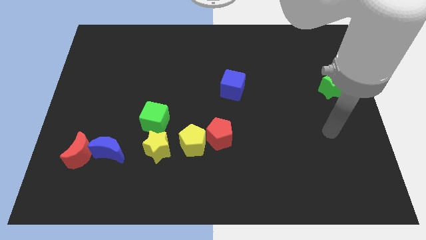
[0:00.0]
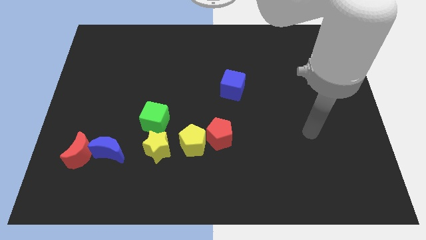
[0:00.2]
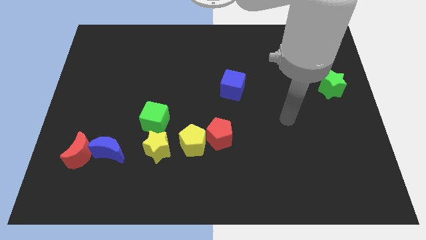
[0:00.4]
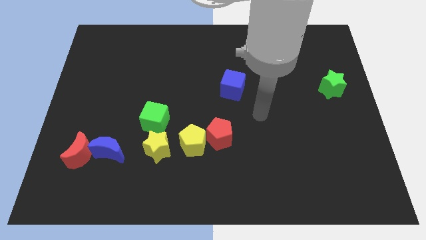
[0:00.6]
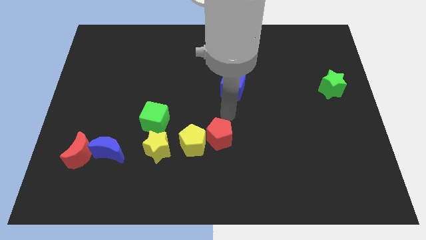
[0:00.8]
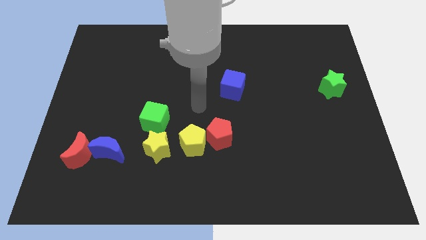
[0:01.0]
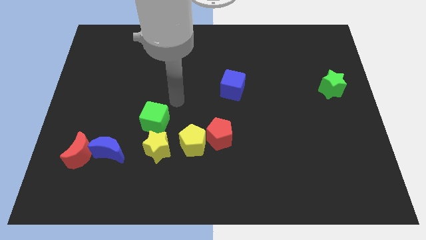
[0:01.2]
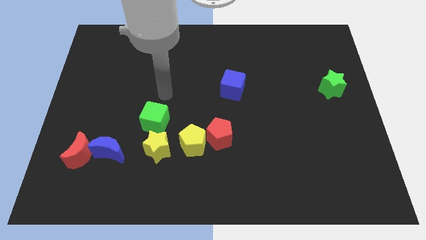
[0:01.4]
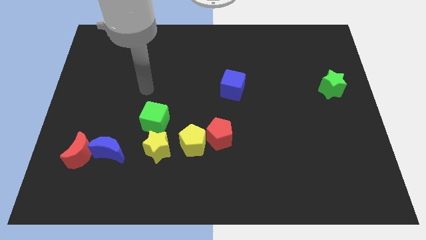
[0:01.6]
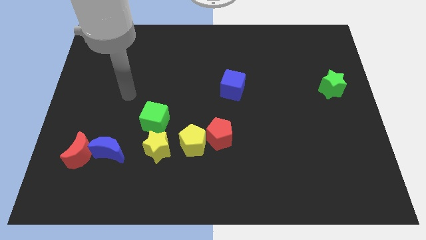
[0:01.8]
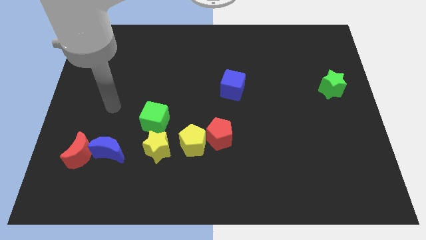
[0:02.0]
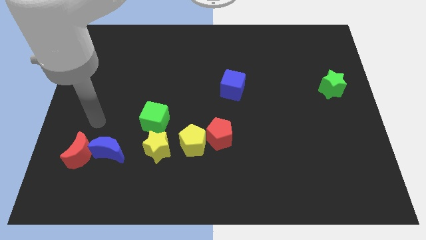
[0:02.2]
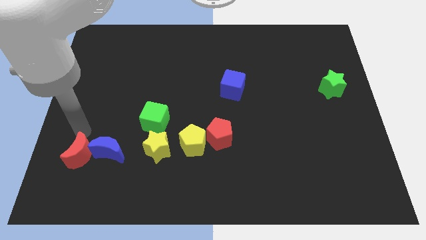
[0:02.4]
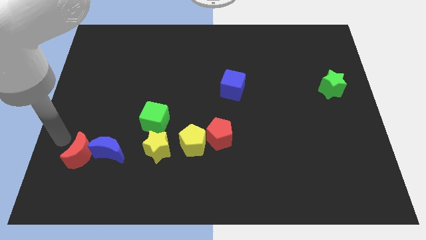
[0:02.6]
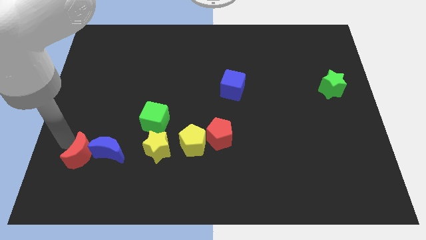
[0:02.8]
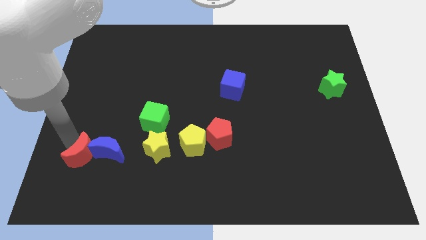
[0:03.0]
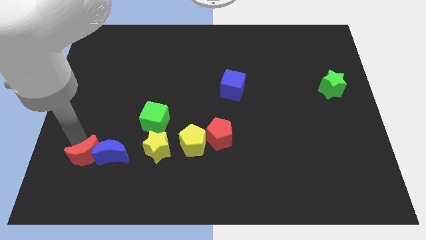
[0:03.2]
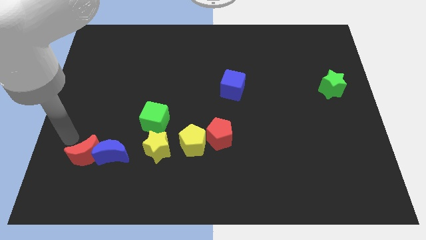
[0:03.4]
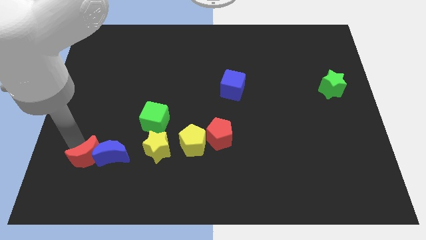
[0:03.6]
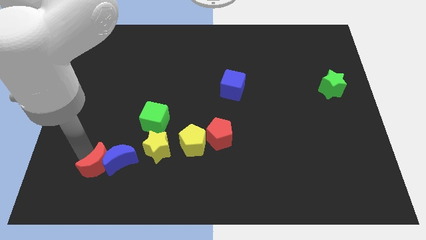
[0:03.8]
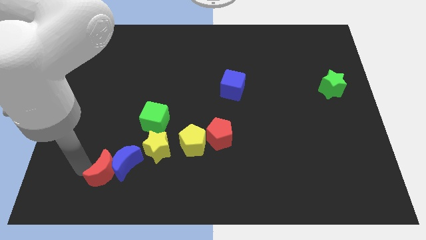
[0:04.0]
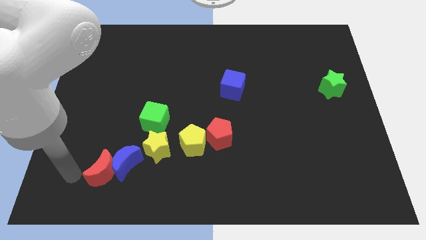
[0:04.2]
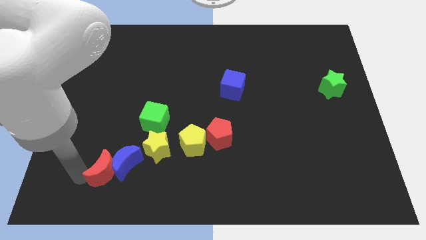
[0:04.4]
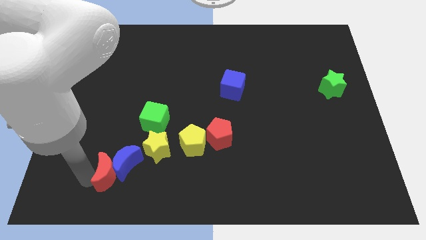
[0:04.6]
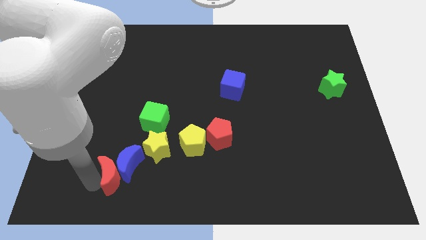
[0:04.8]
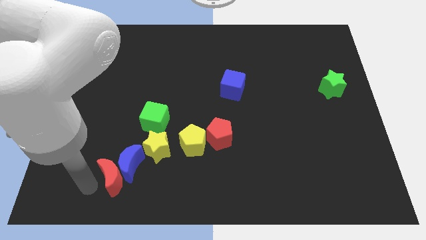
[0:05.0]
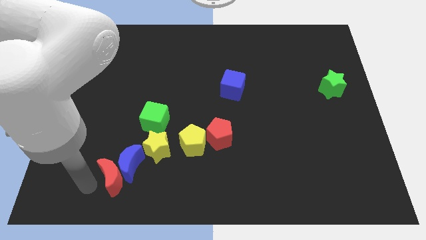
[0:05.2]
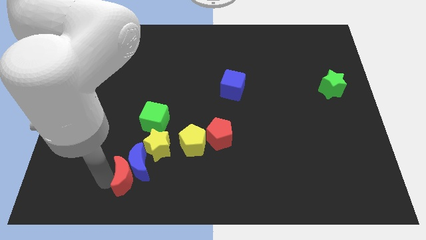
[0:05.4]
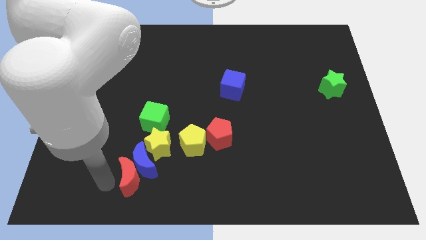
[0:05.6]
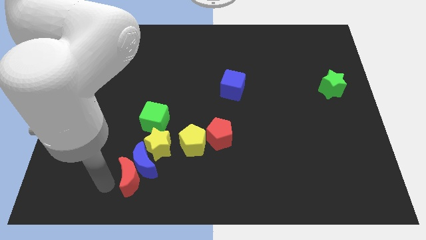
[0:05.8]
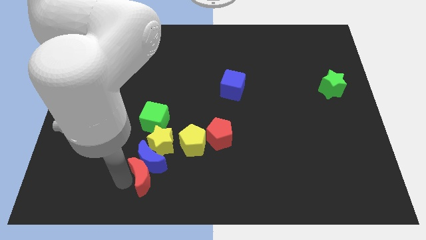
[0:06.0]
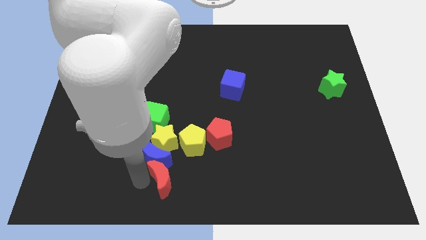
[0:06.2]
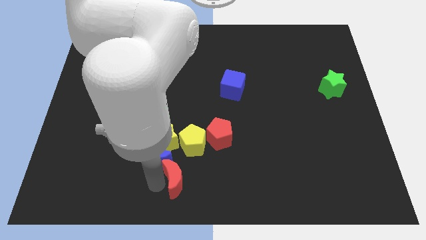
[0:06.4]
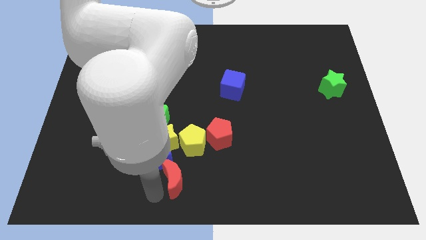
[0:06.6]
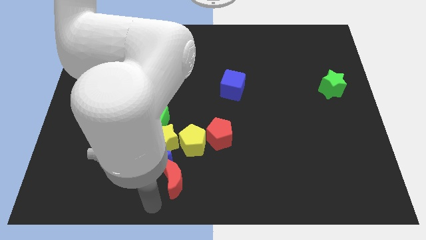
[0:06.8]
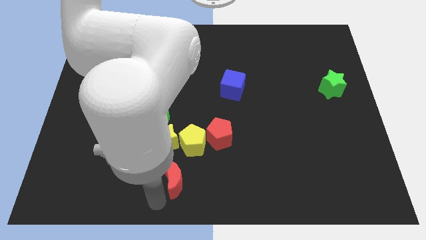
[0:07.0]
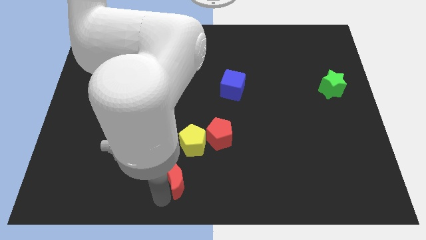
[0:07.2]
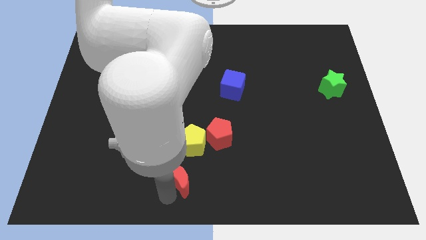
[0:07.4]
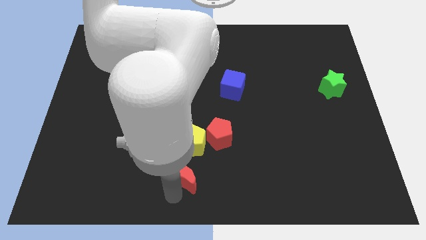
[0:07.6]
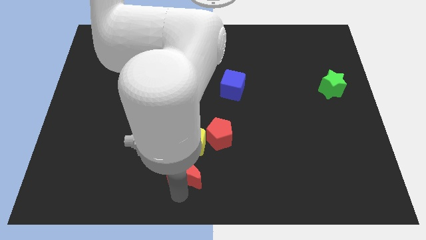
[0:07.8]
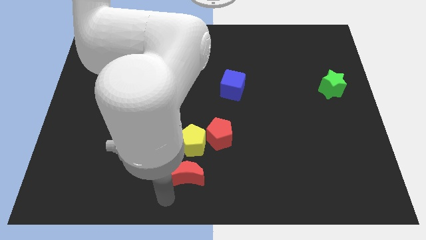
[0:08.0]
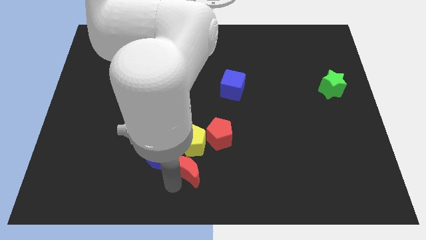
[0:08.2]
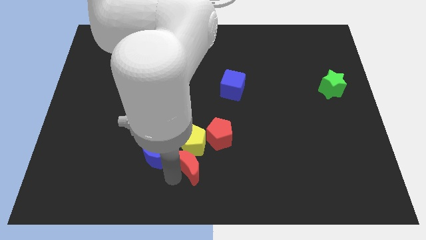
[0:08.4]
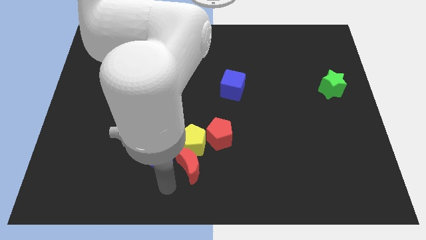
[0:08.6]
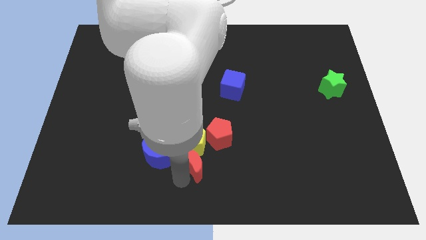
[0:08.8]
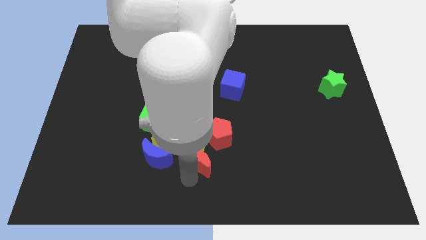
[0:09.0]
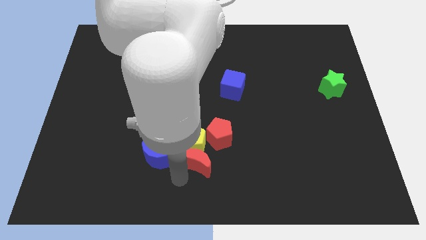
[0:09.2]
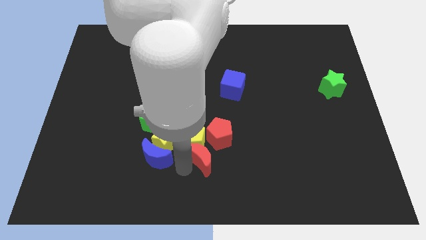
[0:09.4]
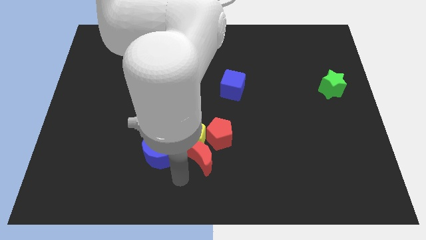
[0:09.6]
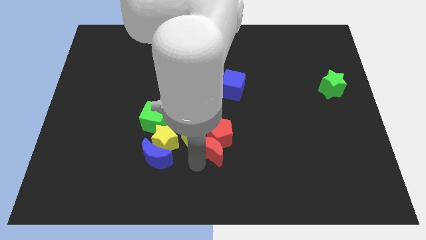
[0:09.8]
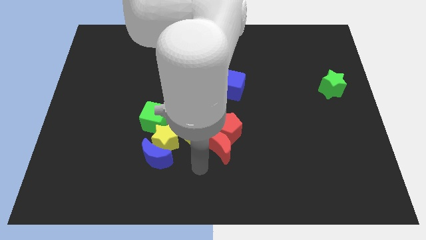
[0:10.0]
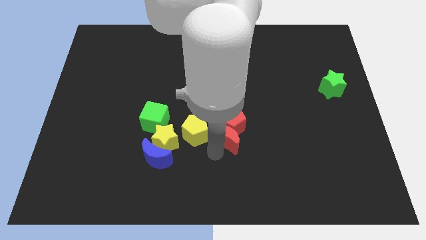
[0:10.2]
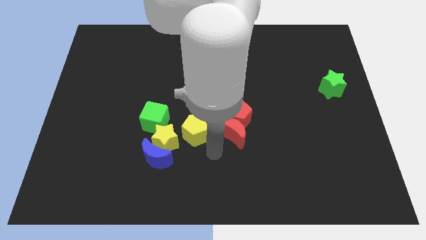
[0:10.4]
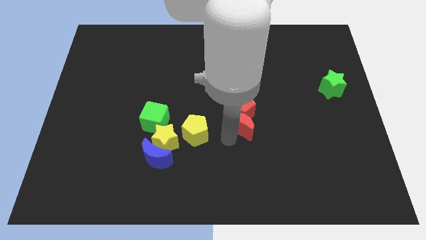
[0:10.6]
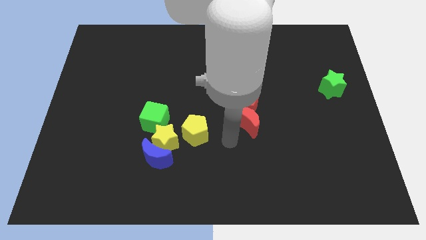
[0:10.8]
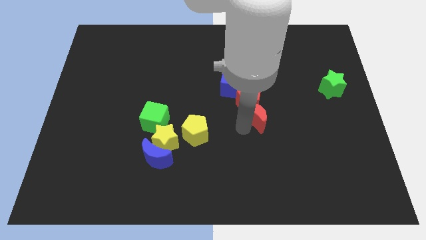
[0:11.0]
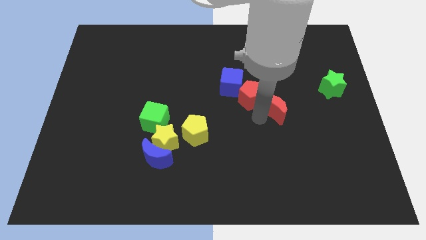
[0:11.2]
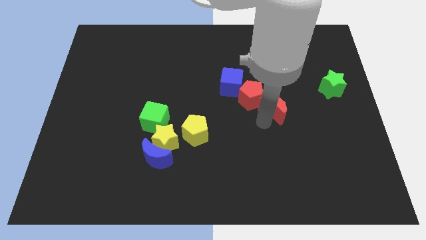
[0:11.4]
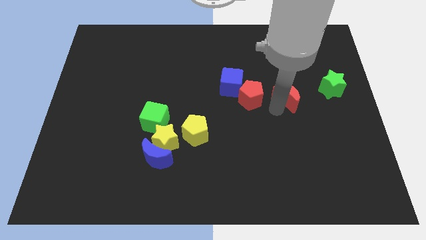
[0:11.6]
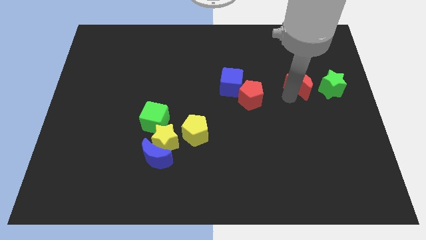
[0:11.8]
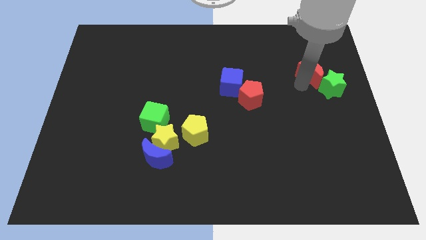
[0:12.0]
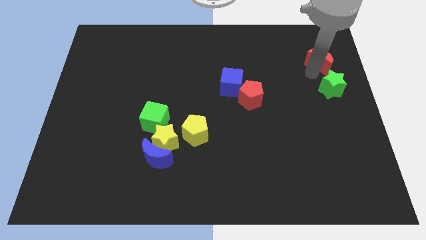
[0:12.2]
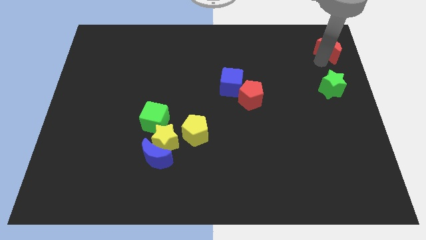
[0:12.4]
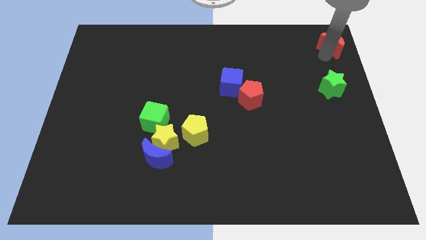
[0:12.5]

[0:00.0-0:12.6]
move the red moon to the upper right corner

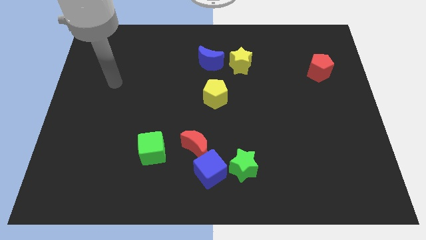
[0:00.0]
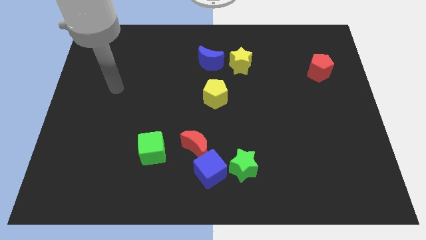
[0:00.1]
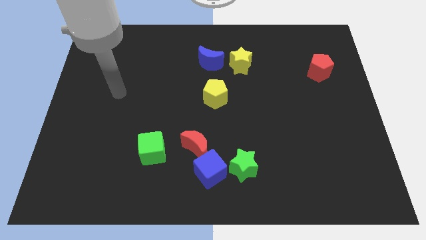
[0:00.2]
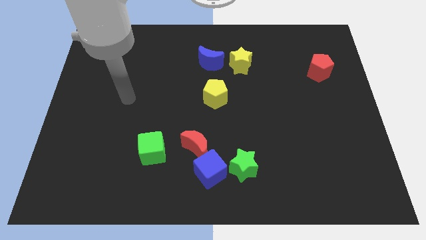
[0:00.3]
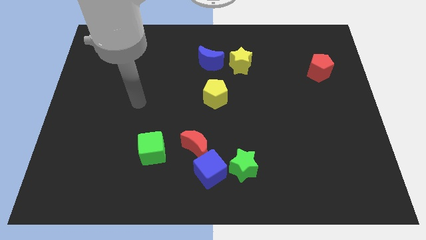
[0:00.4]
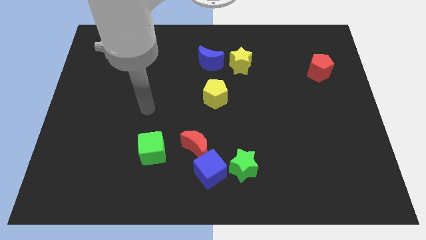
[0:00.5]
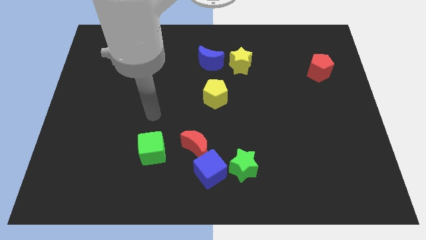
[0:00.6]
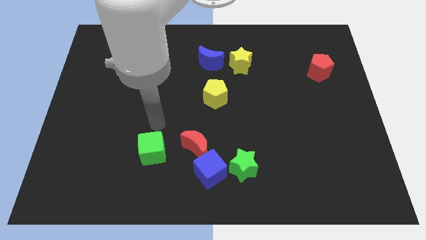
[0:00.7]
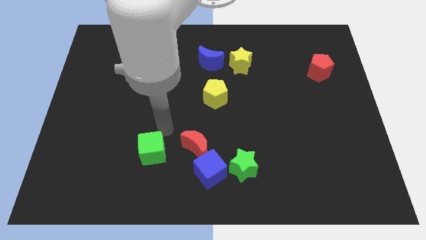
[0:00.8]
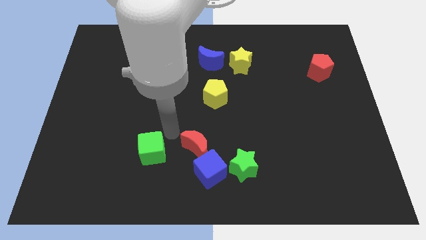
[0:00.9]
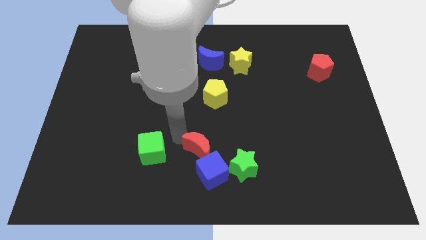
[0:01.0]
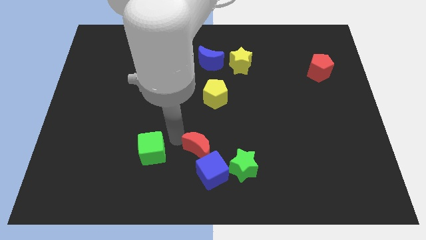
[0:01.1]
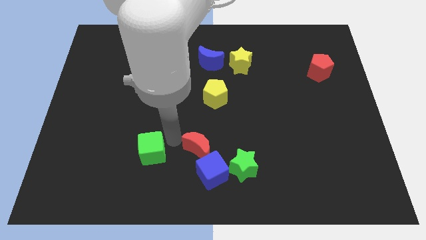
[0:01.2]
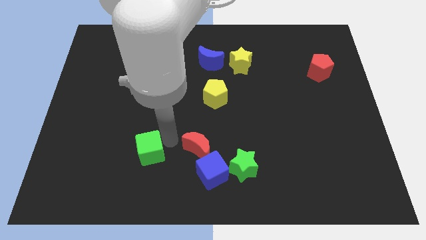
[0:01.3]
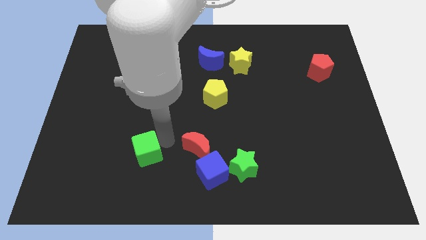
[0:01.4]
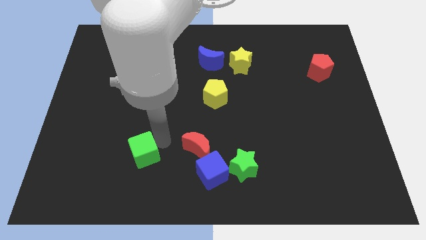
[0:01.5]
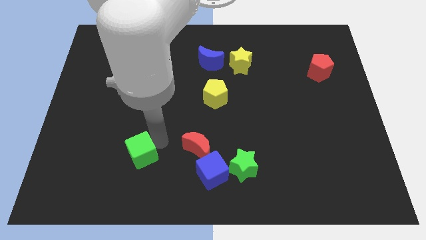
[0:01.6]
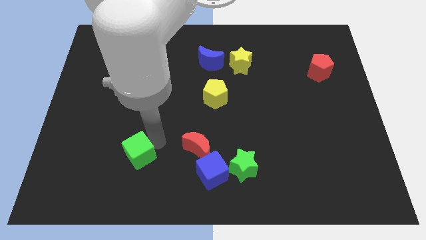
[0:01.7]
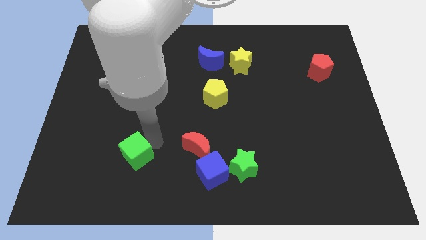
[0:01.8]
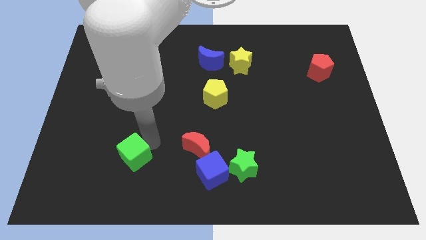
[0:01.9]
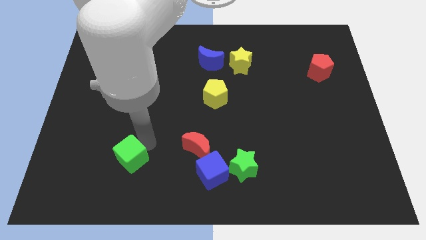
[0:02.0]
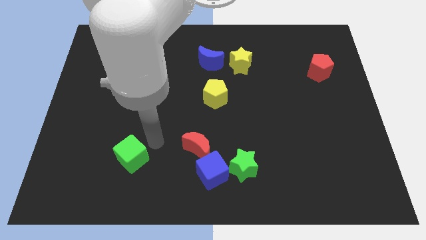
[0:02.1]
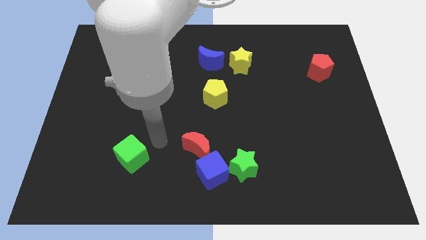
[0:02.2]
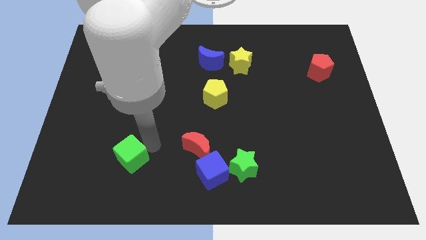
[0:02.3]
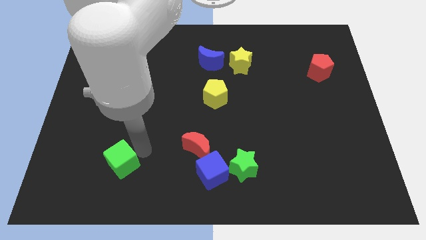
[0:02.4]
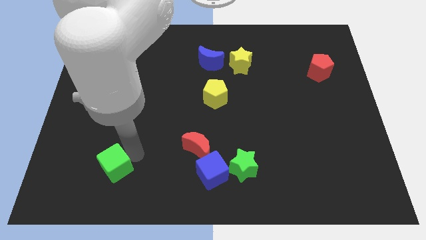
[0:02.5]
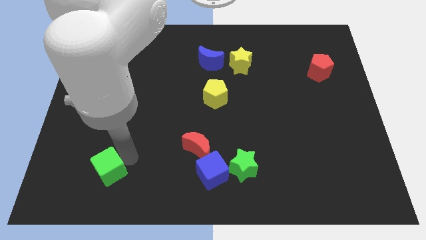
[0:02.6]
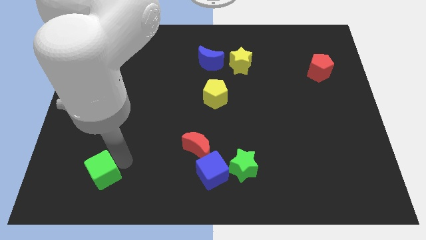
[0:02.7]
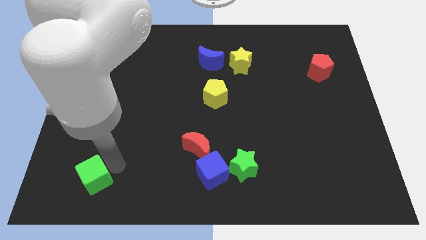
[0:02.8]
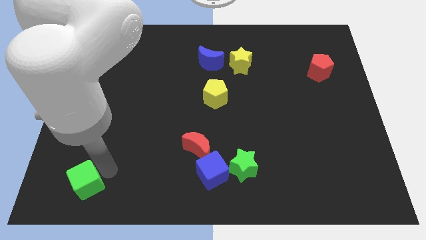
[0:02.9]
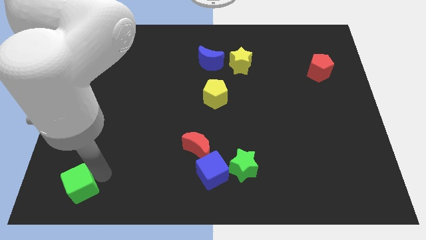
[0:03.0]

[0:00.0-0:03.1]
push the green cube to the lower left corner
